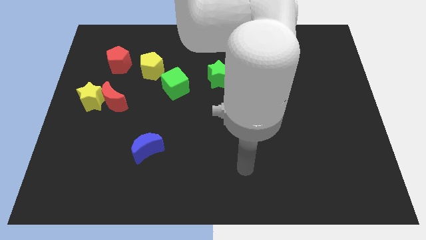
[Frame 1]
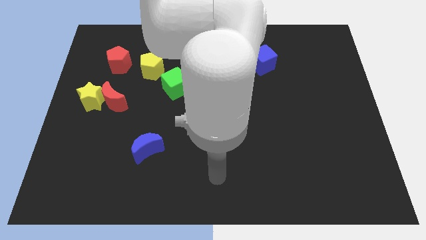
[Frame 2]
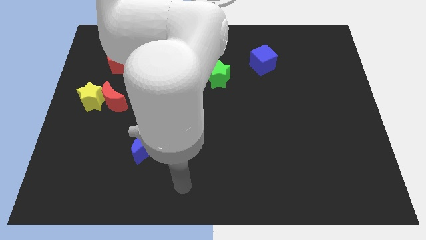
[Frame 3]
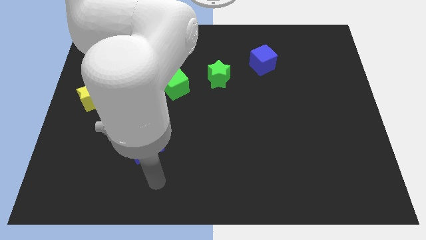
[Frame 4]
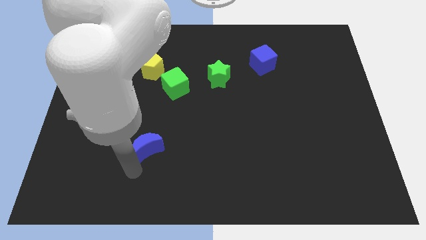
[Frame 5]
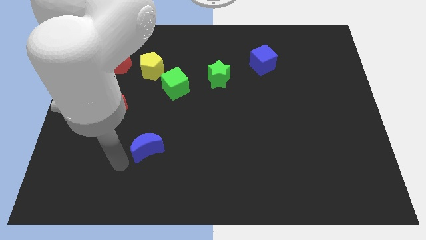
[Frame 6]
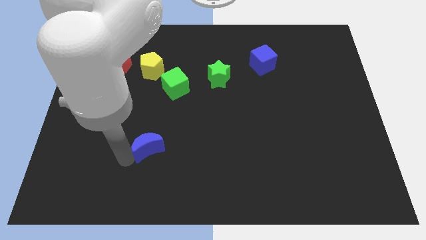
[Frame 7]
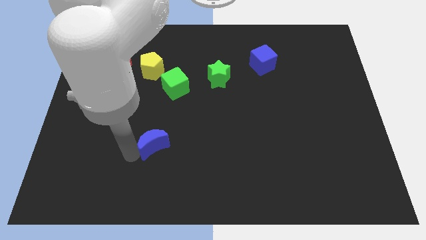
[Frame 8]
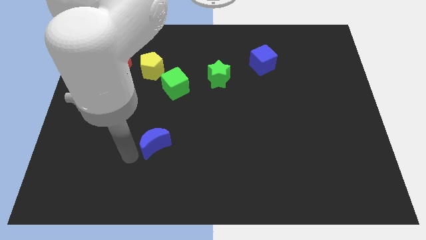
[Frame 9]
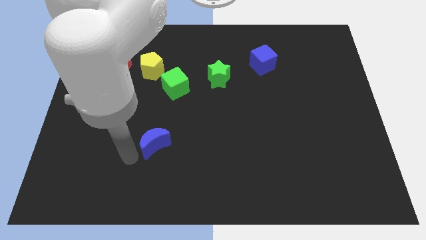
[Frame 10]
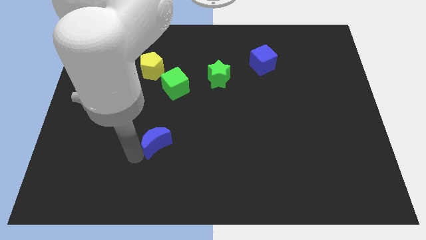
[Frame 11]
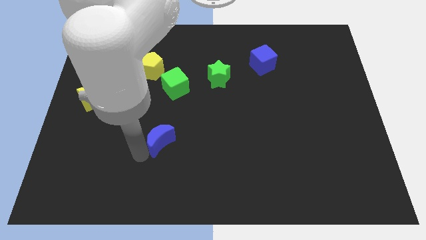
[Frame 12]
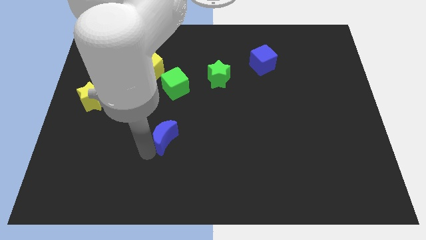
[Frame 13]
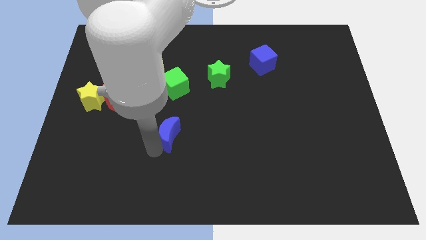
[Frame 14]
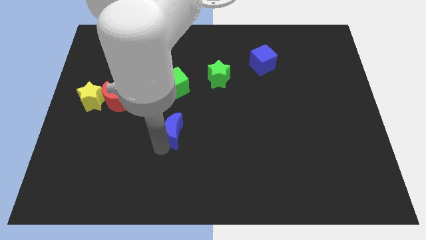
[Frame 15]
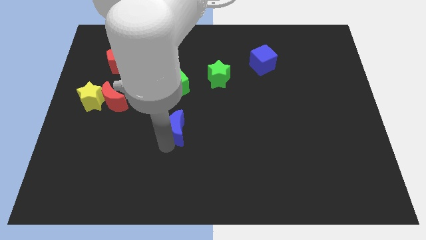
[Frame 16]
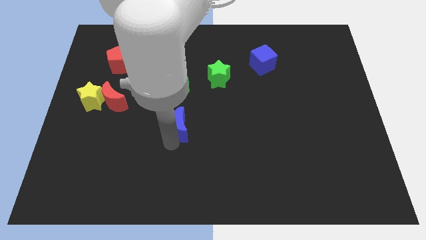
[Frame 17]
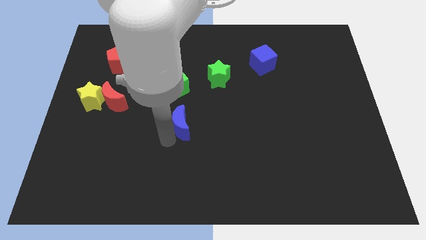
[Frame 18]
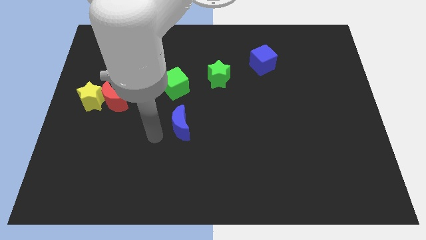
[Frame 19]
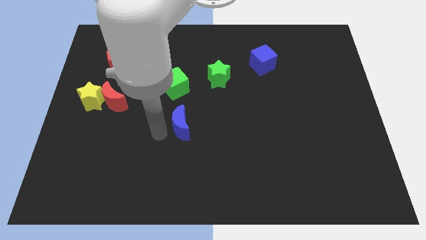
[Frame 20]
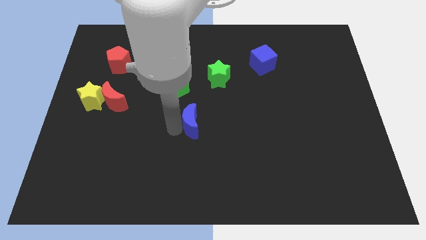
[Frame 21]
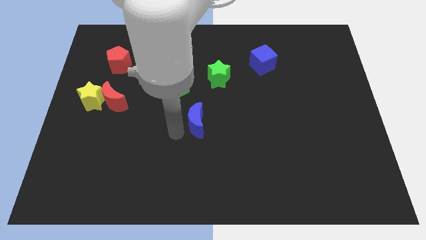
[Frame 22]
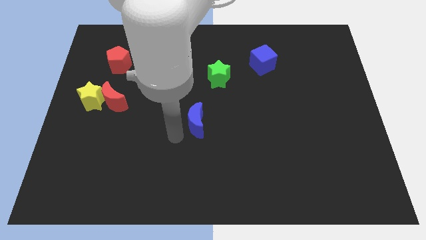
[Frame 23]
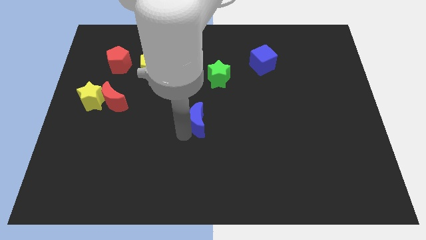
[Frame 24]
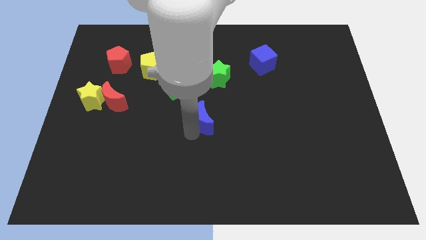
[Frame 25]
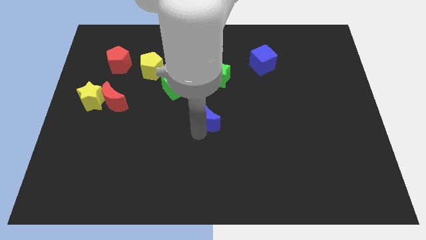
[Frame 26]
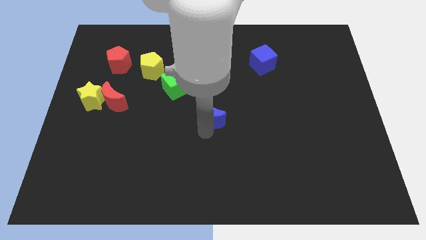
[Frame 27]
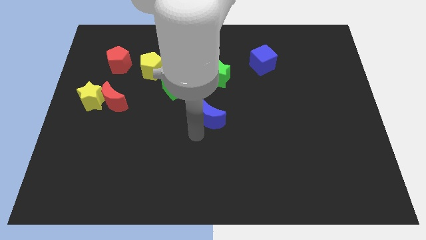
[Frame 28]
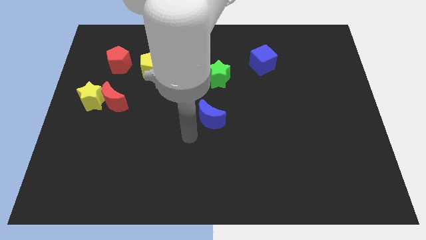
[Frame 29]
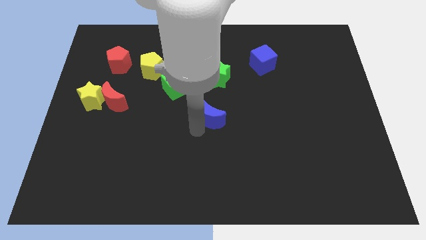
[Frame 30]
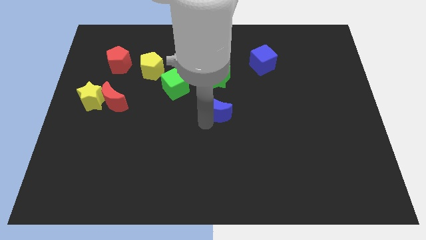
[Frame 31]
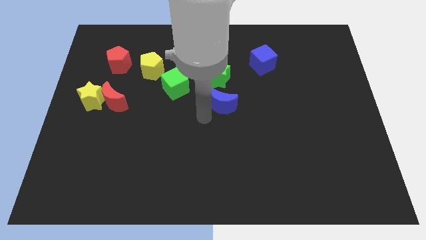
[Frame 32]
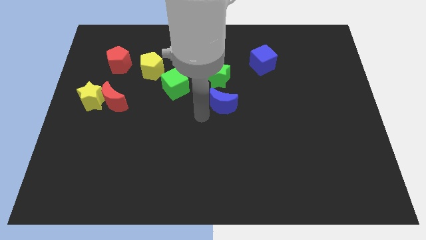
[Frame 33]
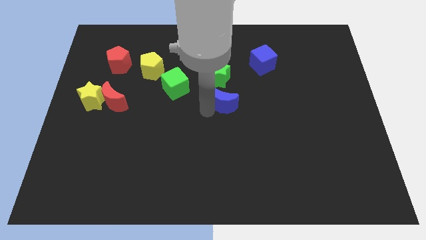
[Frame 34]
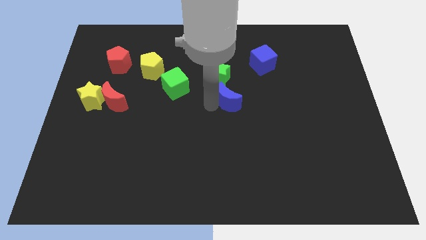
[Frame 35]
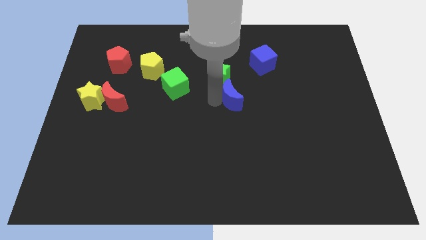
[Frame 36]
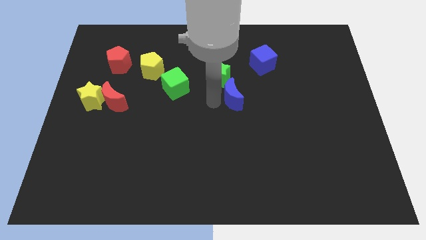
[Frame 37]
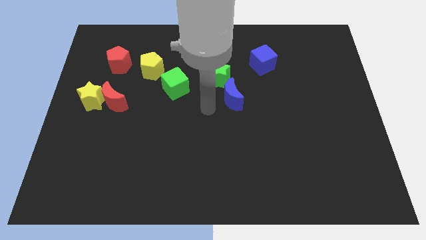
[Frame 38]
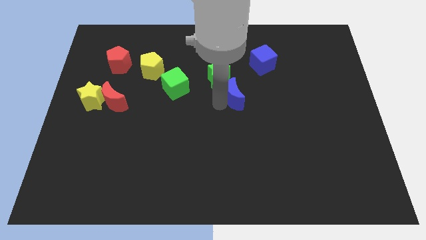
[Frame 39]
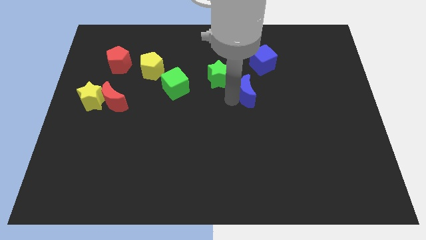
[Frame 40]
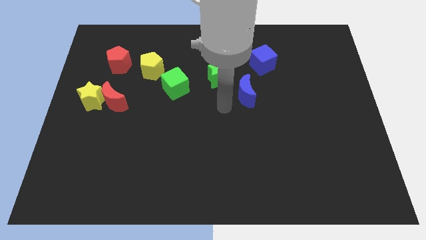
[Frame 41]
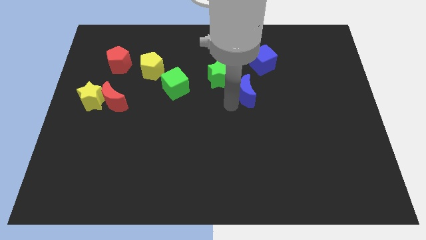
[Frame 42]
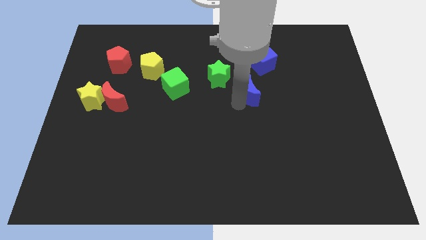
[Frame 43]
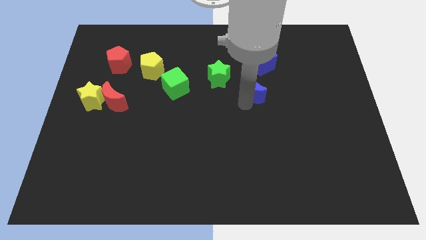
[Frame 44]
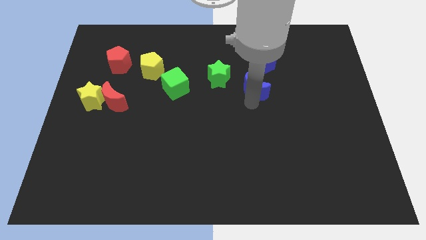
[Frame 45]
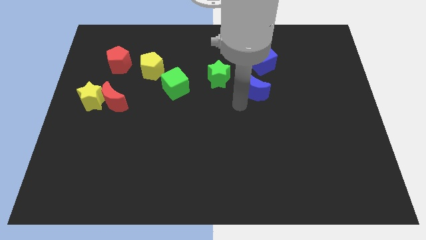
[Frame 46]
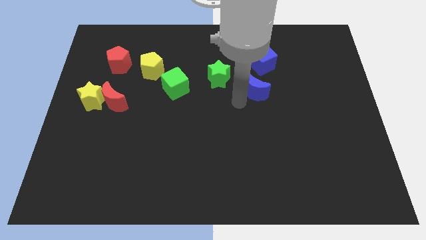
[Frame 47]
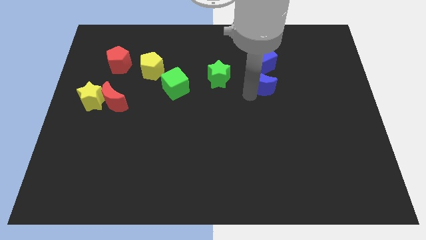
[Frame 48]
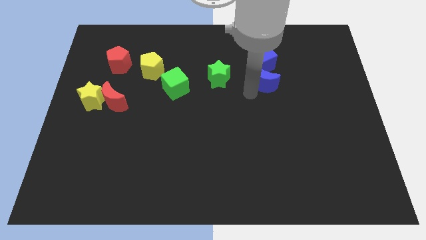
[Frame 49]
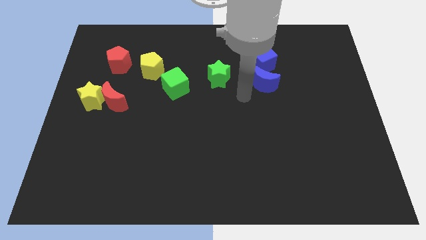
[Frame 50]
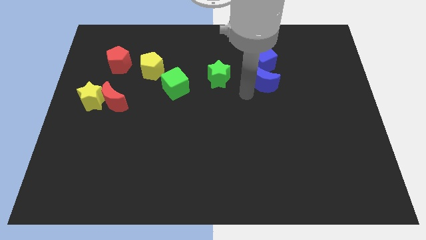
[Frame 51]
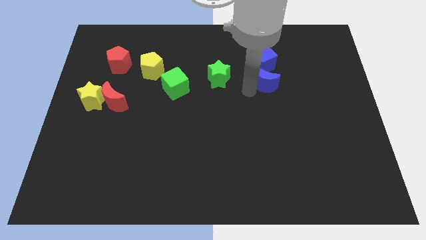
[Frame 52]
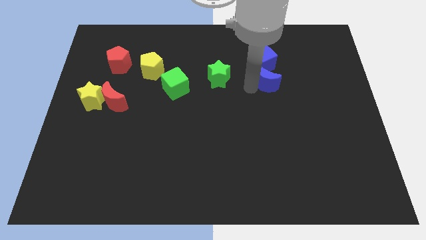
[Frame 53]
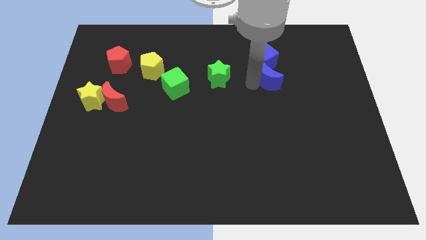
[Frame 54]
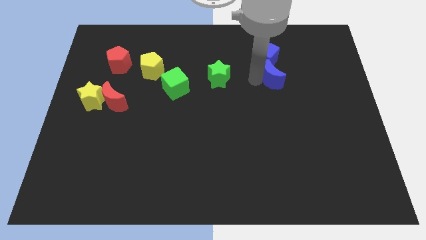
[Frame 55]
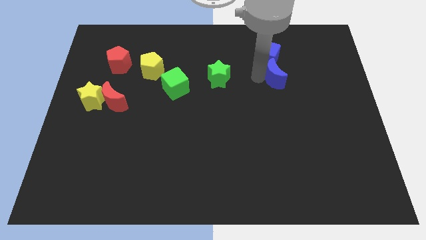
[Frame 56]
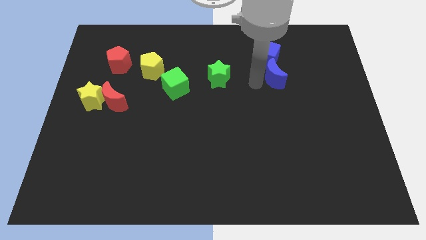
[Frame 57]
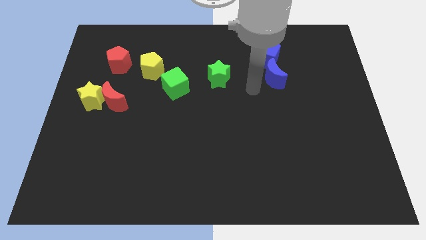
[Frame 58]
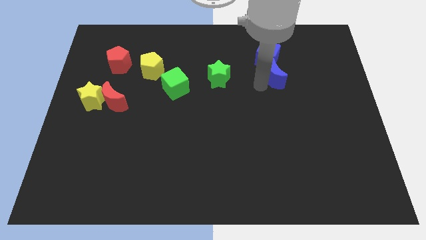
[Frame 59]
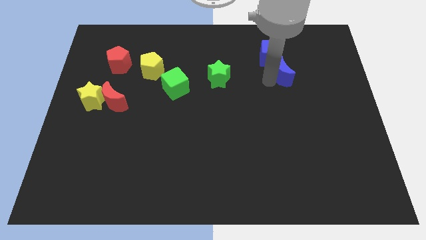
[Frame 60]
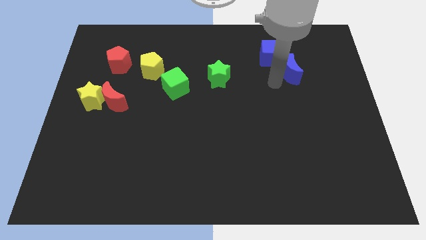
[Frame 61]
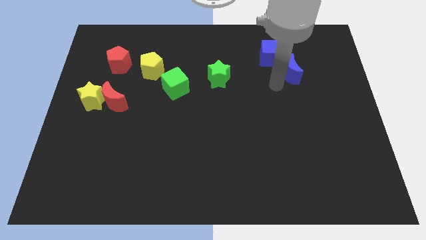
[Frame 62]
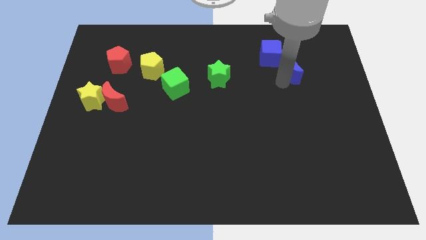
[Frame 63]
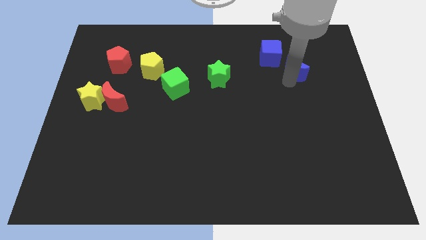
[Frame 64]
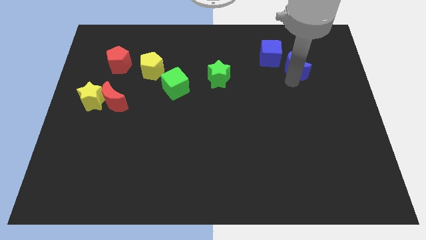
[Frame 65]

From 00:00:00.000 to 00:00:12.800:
push the blue moon to the right side of the blue cube

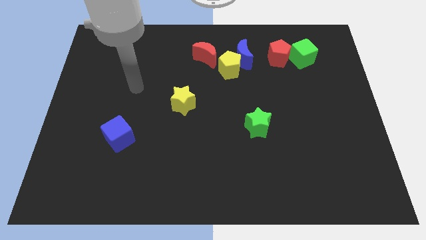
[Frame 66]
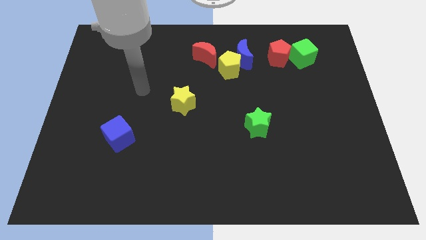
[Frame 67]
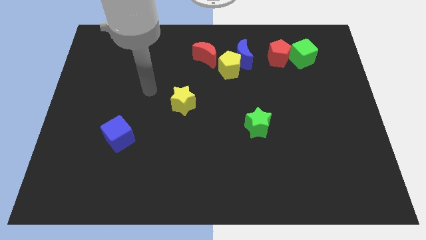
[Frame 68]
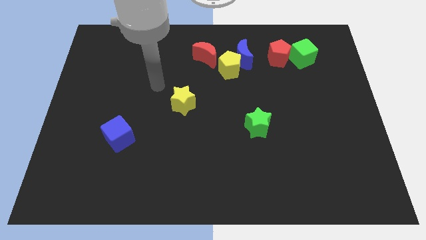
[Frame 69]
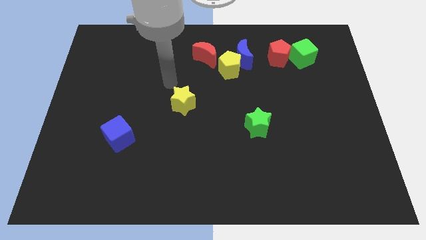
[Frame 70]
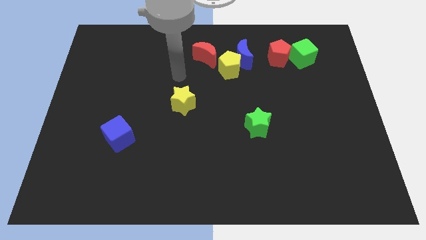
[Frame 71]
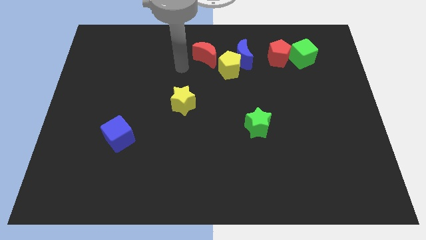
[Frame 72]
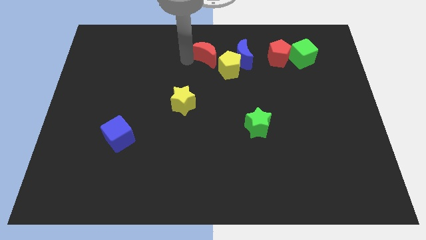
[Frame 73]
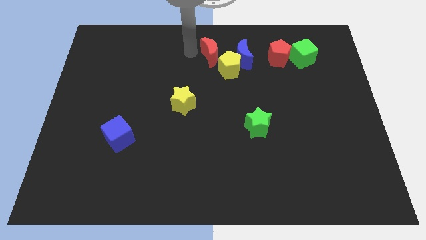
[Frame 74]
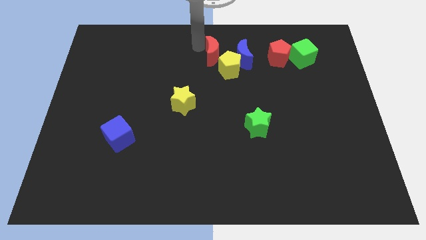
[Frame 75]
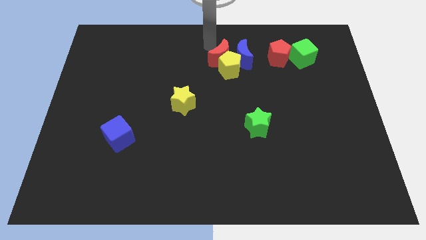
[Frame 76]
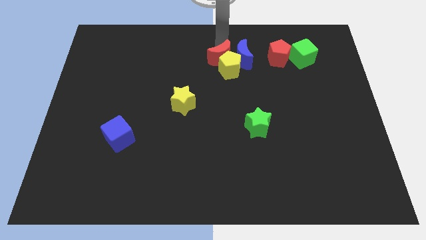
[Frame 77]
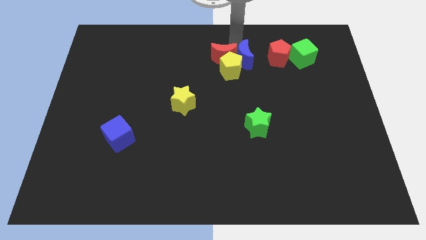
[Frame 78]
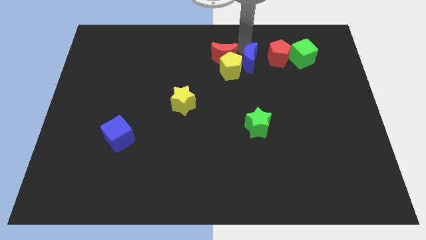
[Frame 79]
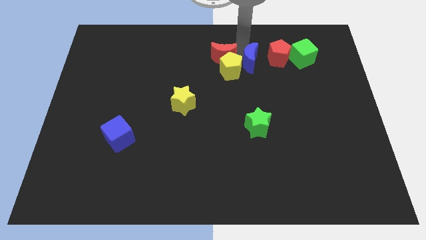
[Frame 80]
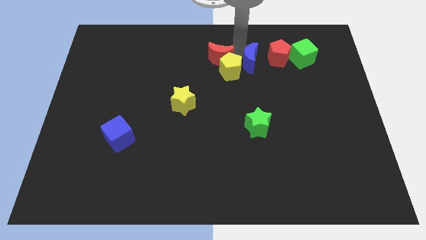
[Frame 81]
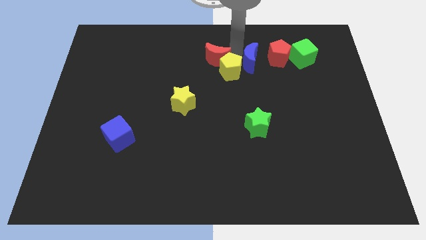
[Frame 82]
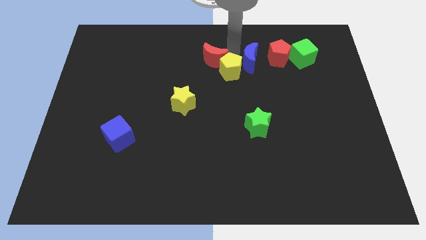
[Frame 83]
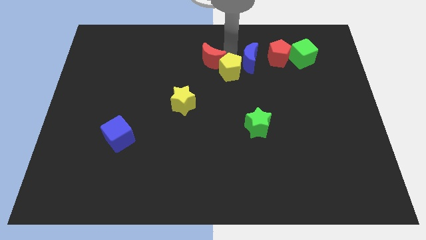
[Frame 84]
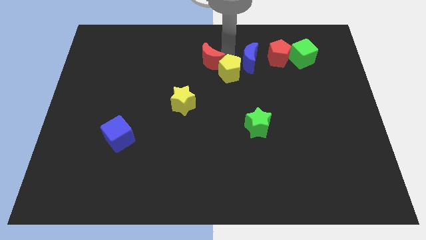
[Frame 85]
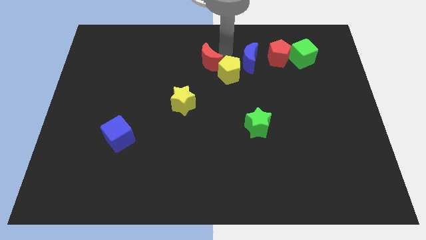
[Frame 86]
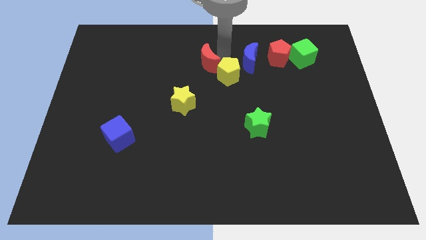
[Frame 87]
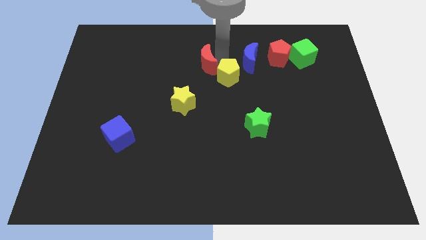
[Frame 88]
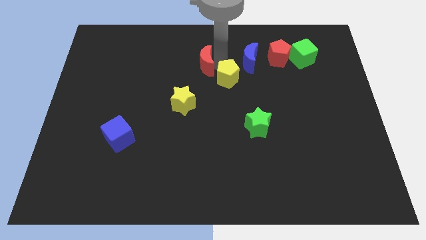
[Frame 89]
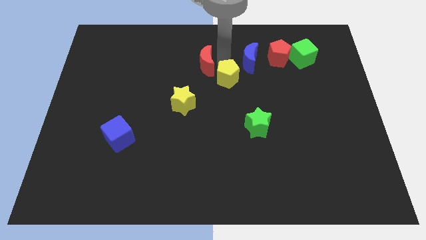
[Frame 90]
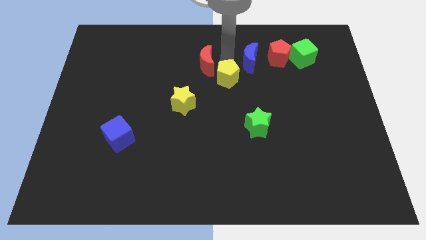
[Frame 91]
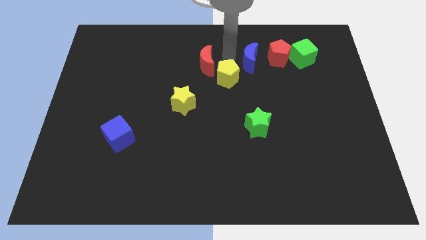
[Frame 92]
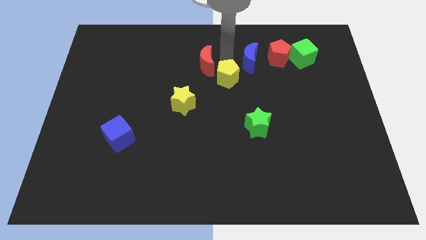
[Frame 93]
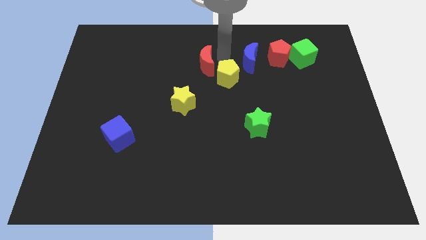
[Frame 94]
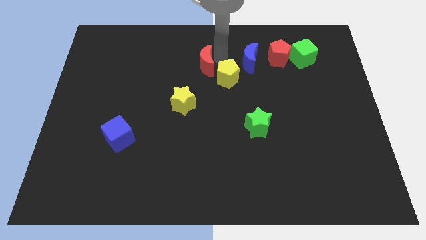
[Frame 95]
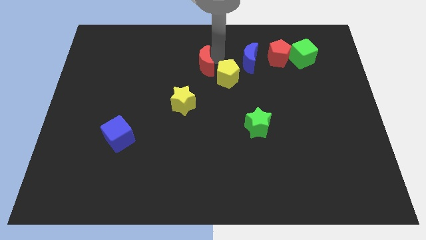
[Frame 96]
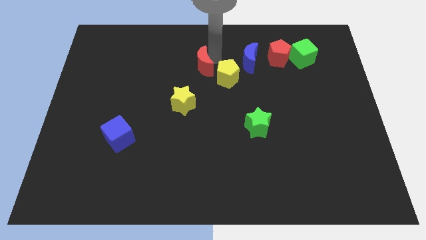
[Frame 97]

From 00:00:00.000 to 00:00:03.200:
move the red moon above the yellow star
